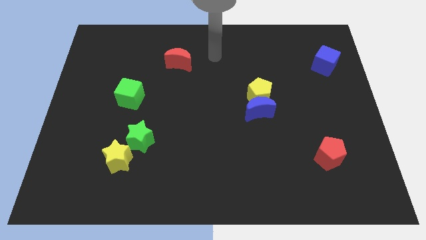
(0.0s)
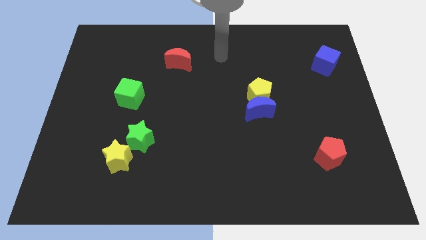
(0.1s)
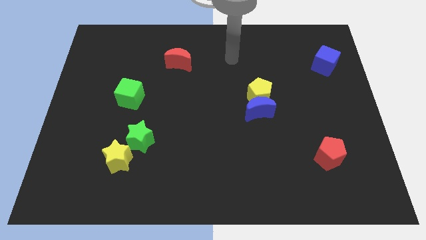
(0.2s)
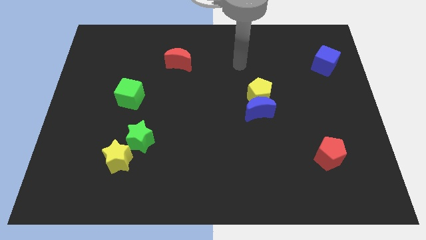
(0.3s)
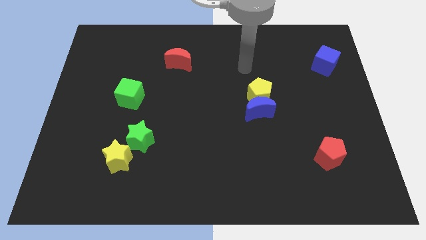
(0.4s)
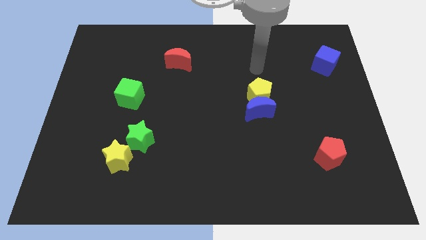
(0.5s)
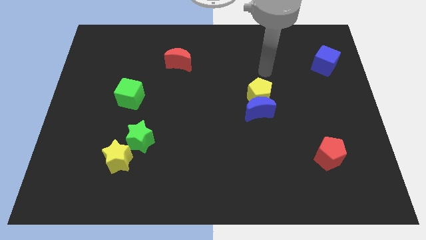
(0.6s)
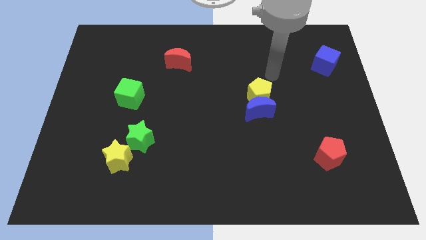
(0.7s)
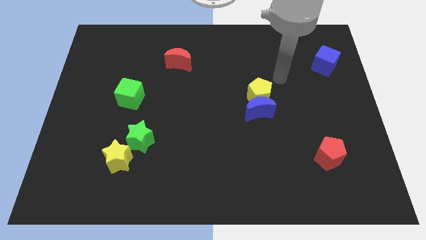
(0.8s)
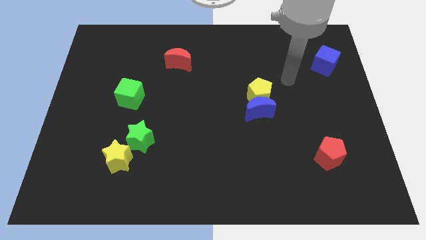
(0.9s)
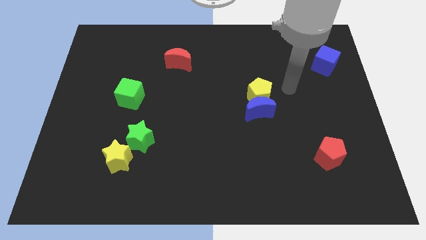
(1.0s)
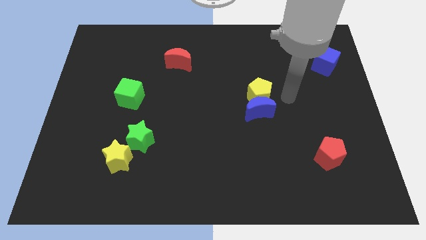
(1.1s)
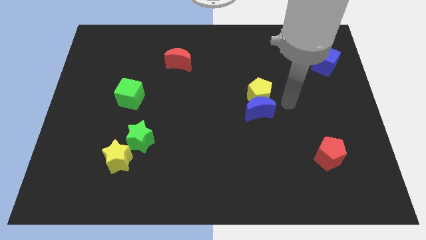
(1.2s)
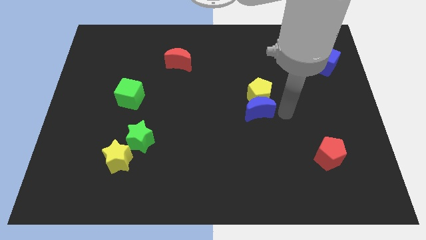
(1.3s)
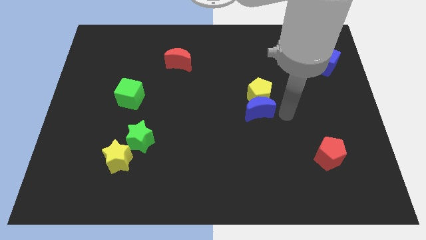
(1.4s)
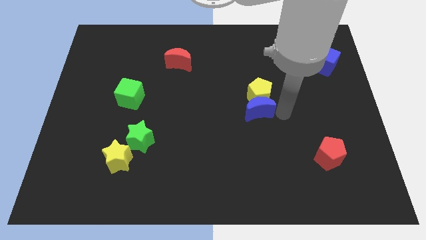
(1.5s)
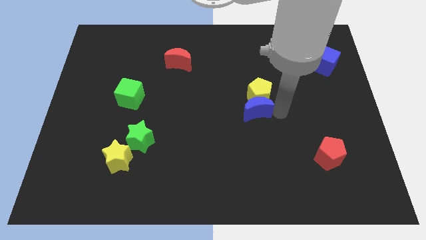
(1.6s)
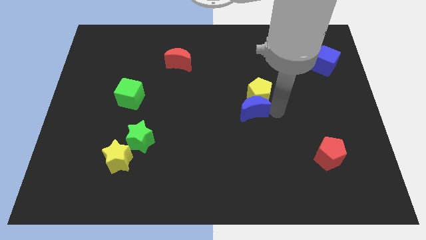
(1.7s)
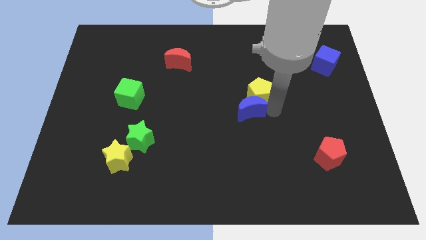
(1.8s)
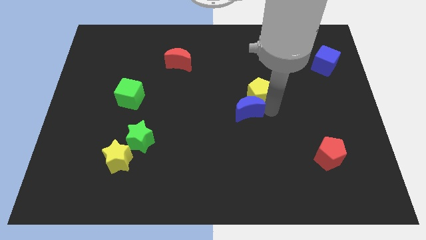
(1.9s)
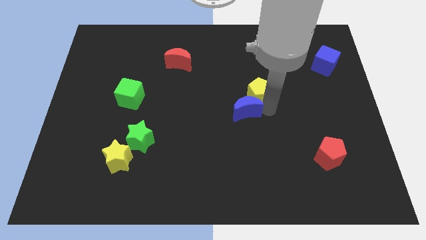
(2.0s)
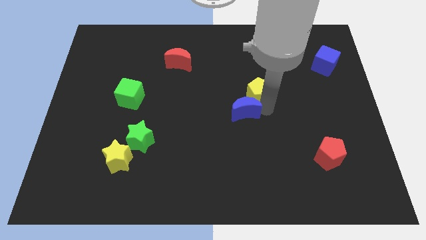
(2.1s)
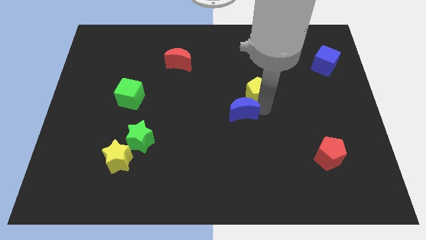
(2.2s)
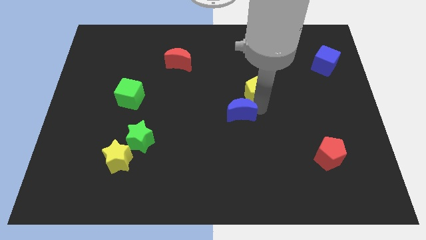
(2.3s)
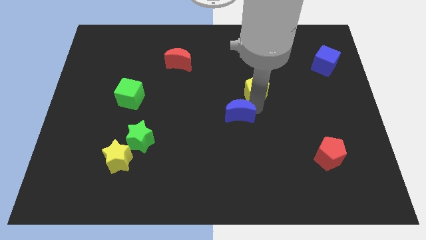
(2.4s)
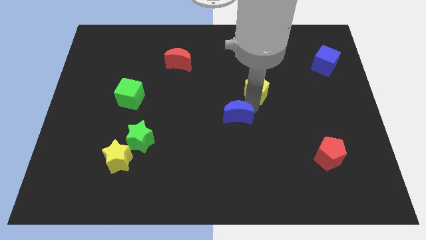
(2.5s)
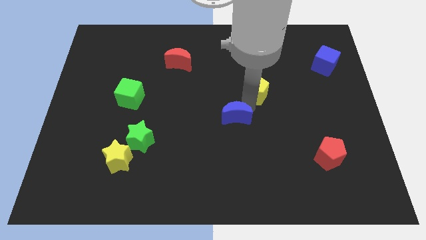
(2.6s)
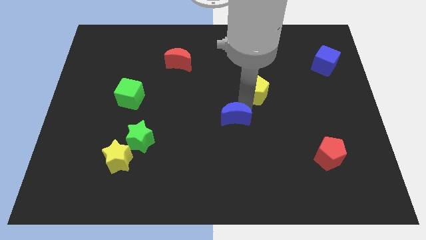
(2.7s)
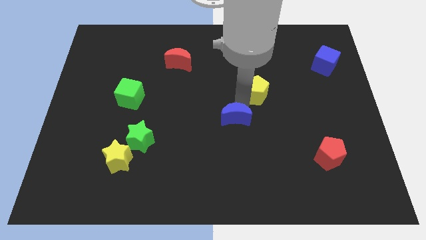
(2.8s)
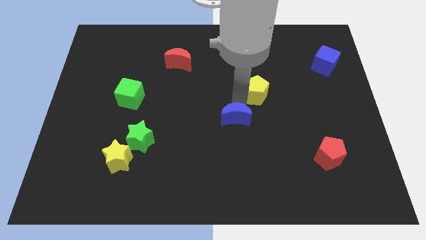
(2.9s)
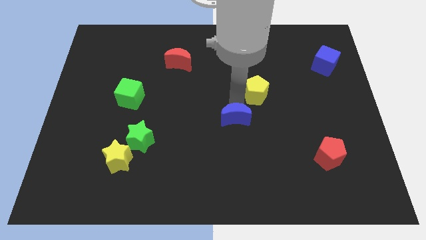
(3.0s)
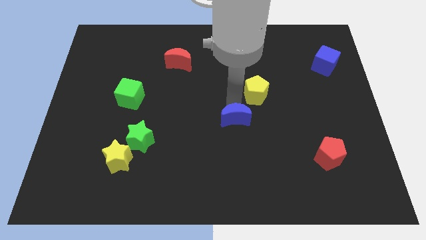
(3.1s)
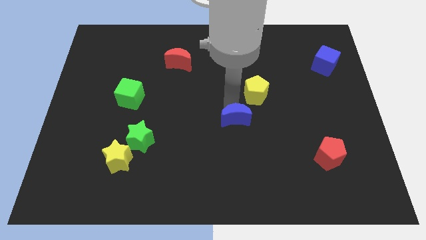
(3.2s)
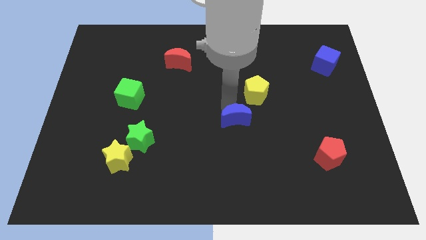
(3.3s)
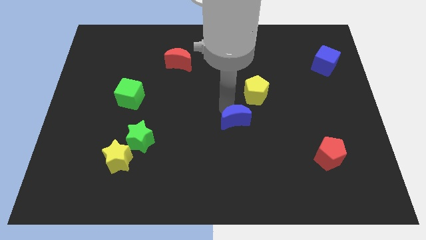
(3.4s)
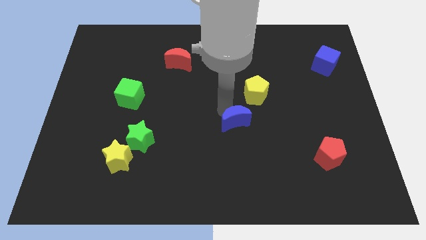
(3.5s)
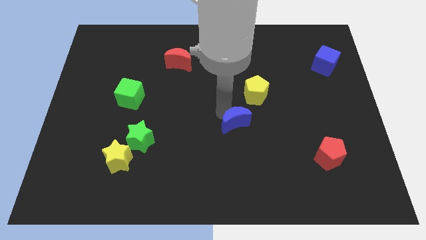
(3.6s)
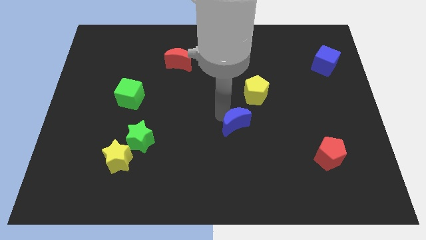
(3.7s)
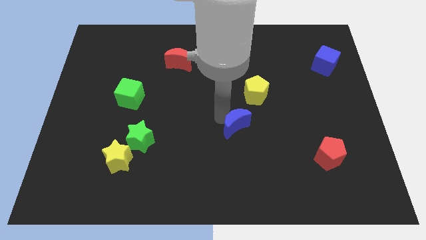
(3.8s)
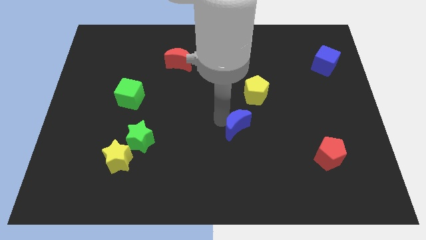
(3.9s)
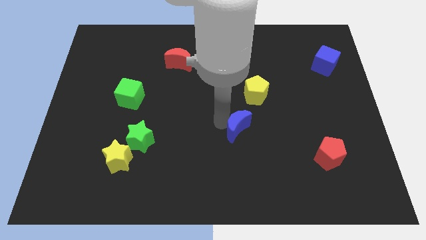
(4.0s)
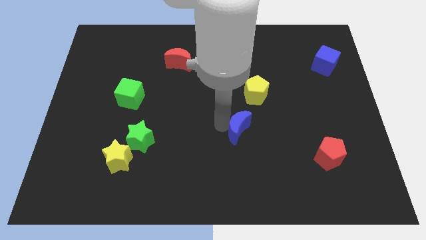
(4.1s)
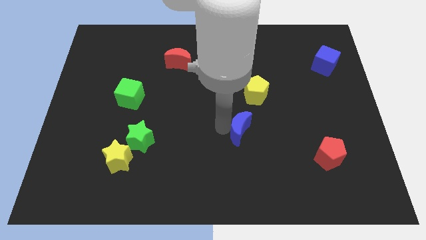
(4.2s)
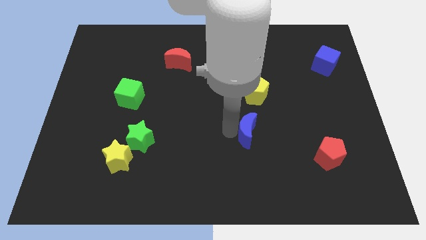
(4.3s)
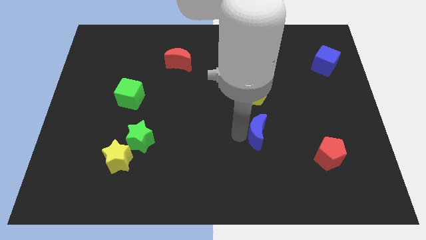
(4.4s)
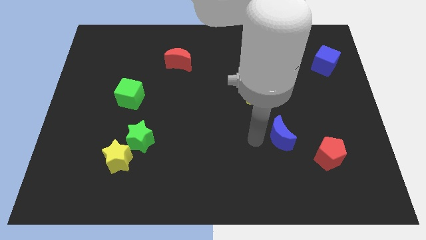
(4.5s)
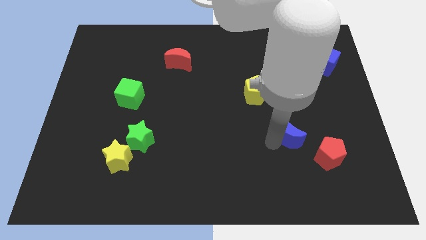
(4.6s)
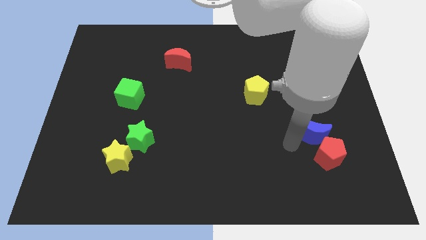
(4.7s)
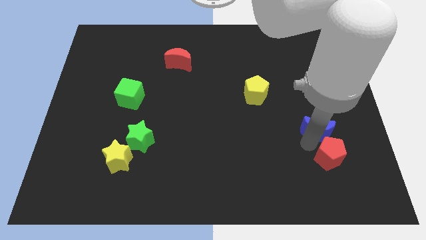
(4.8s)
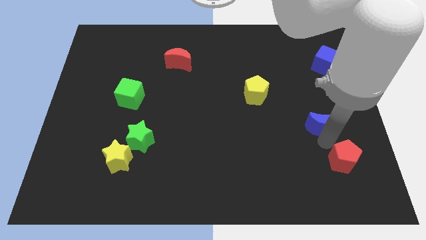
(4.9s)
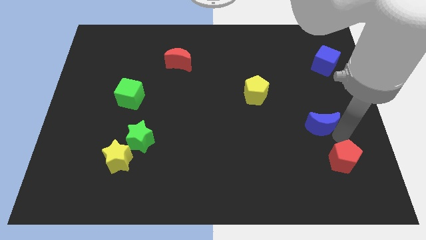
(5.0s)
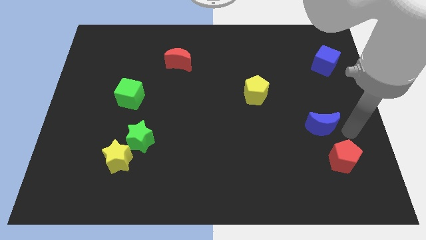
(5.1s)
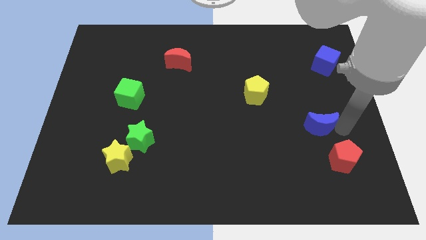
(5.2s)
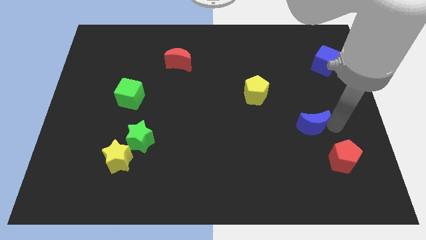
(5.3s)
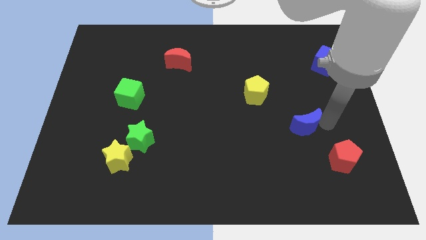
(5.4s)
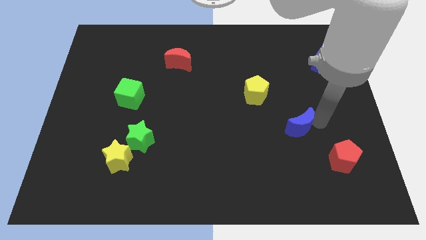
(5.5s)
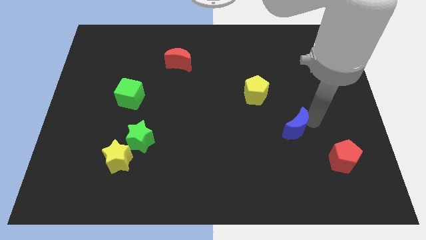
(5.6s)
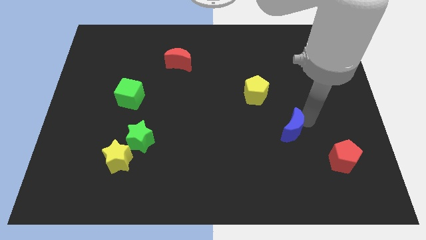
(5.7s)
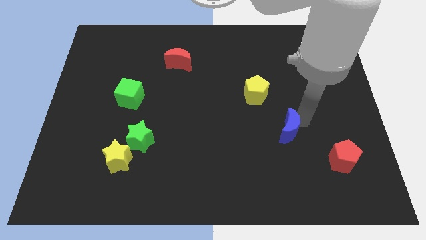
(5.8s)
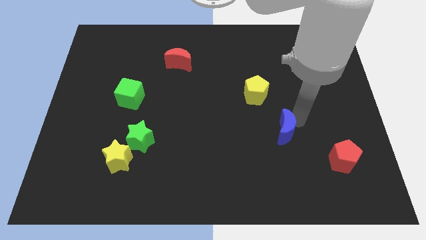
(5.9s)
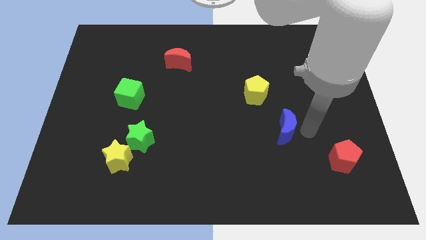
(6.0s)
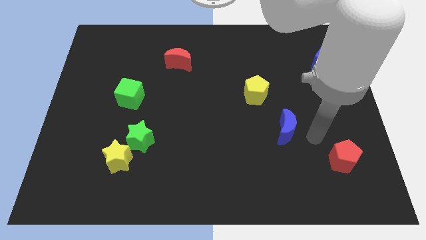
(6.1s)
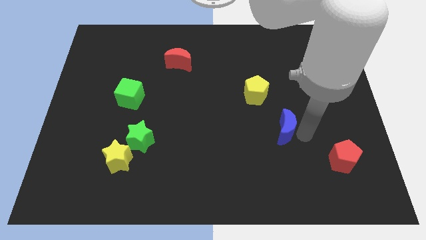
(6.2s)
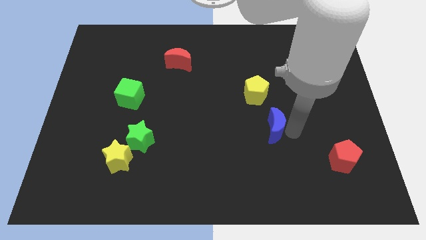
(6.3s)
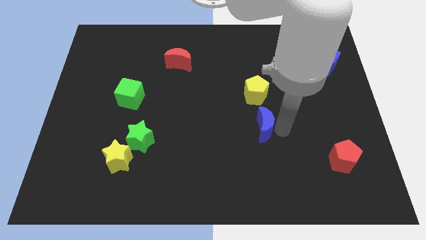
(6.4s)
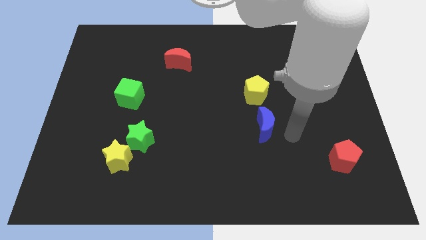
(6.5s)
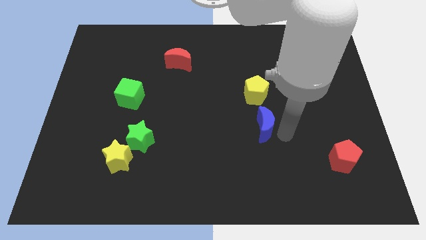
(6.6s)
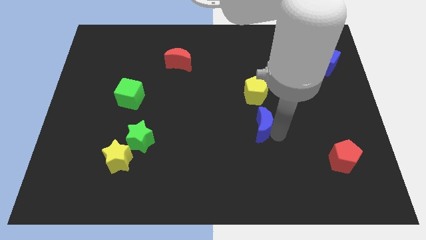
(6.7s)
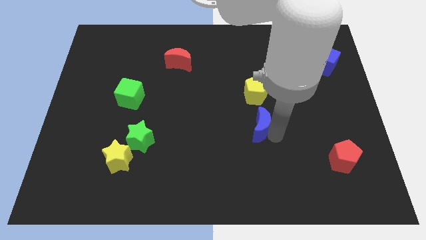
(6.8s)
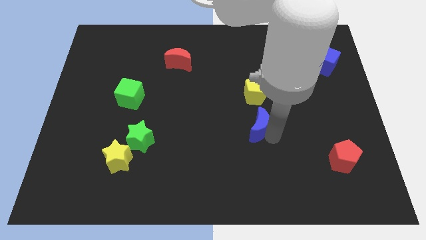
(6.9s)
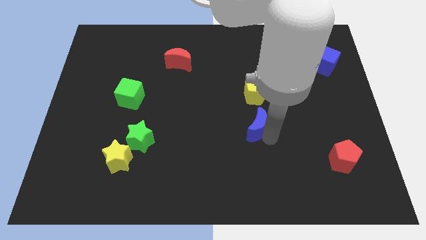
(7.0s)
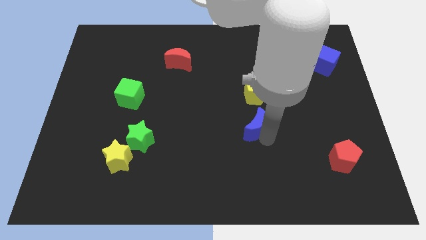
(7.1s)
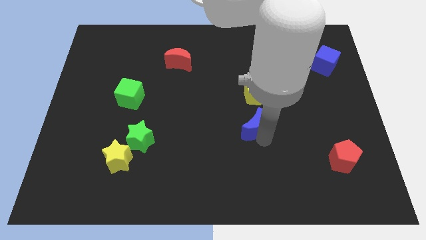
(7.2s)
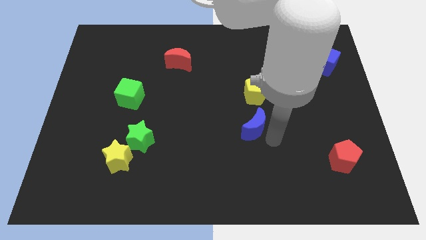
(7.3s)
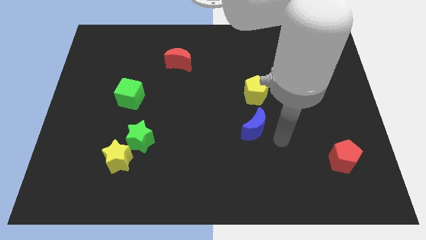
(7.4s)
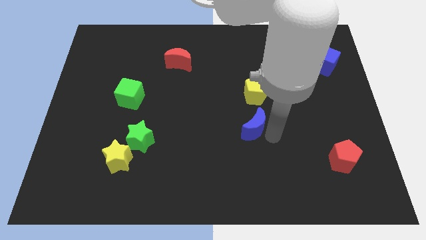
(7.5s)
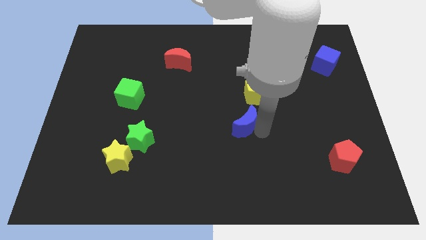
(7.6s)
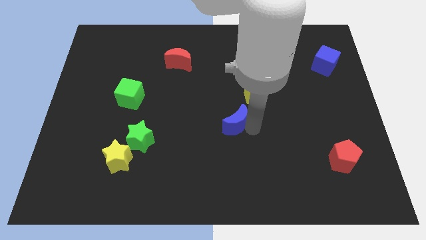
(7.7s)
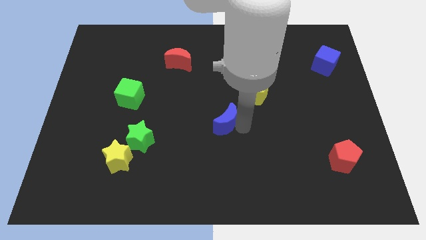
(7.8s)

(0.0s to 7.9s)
move the blue moon to the left somewhat

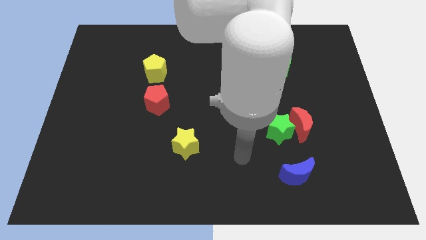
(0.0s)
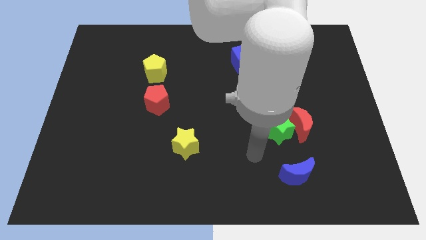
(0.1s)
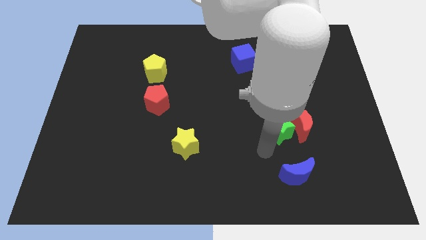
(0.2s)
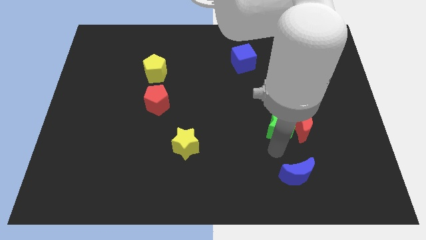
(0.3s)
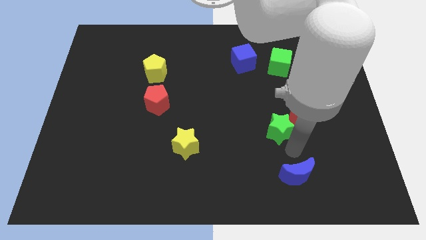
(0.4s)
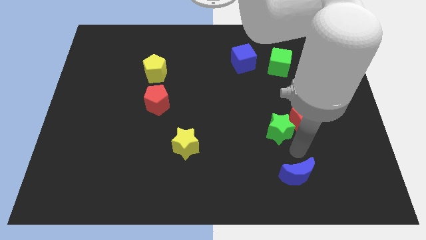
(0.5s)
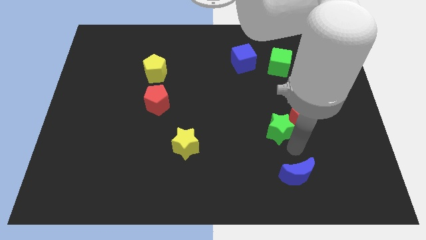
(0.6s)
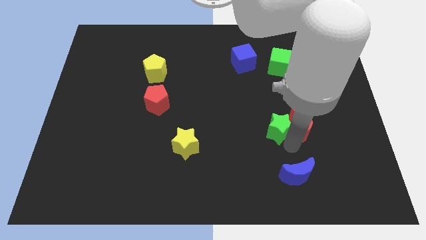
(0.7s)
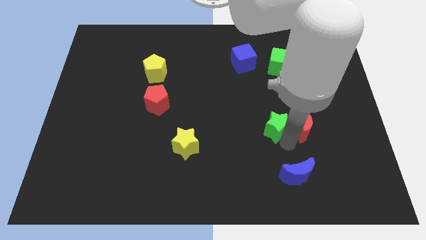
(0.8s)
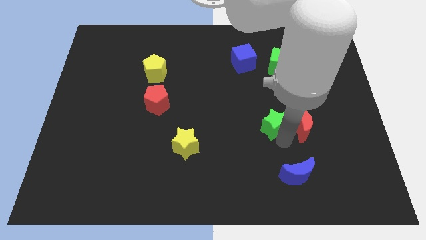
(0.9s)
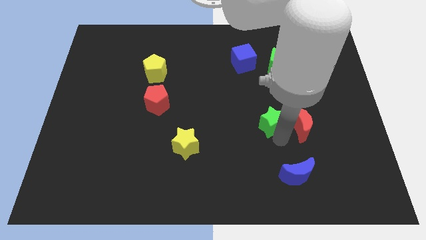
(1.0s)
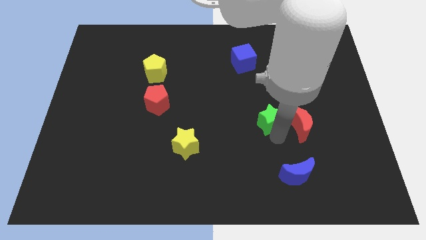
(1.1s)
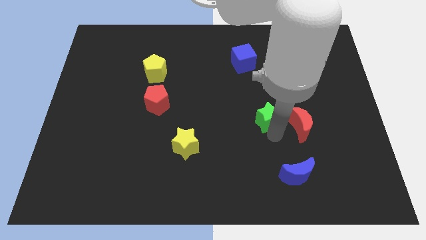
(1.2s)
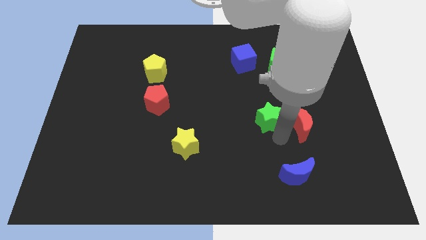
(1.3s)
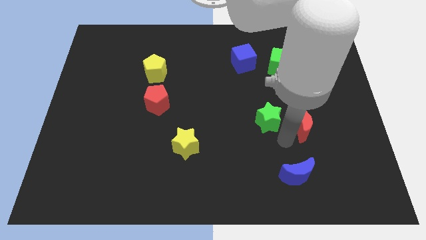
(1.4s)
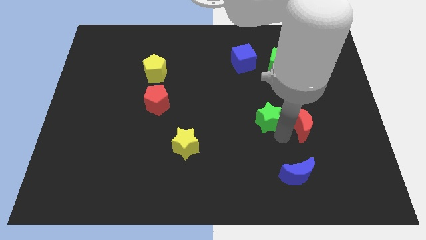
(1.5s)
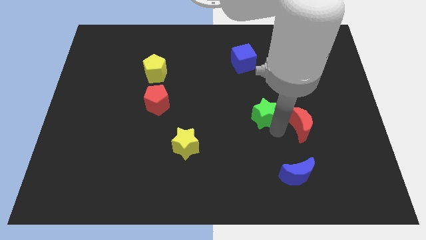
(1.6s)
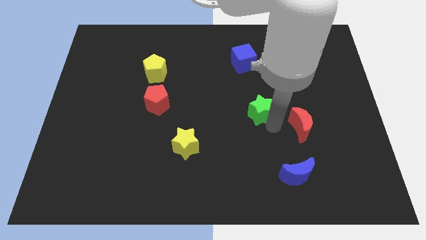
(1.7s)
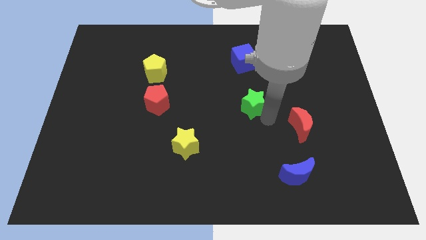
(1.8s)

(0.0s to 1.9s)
slightly slide the green star diagonally upwards and left
